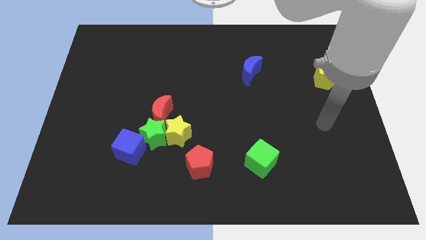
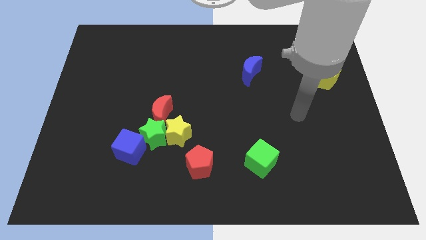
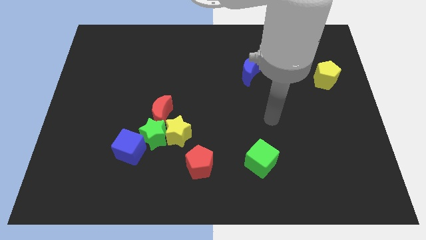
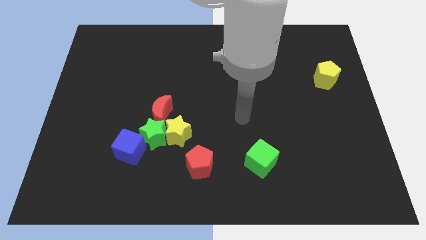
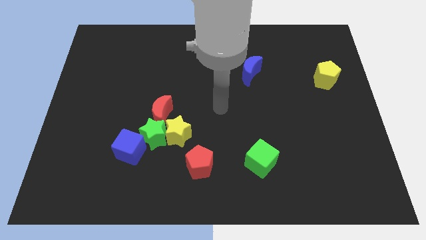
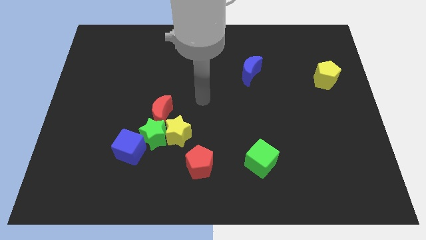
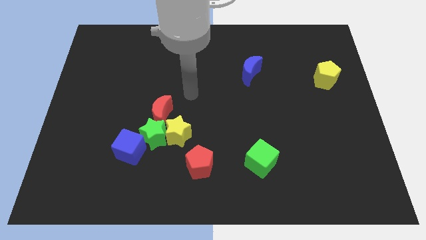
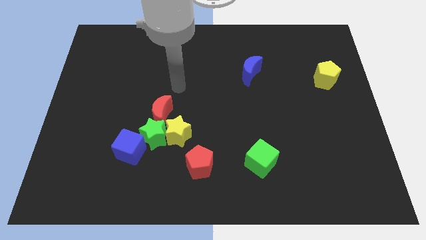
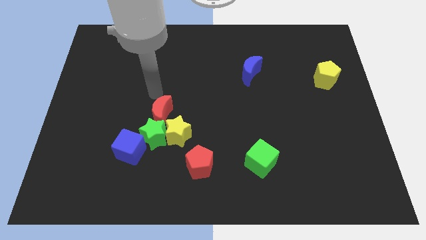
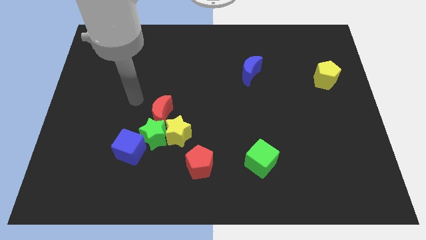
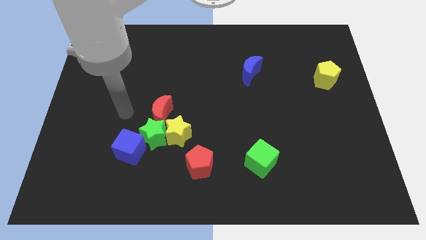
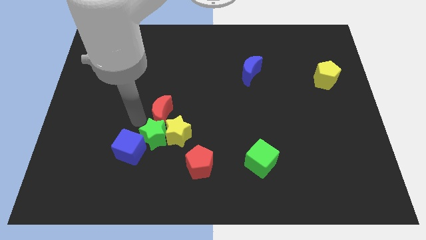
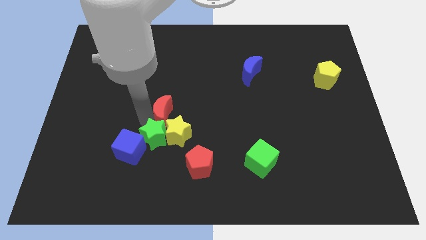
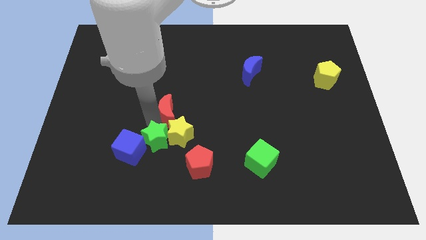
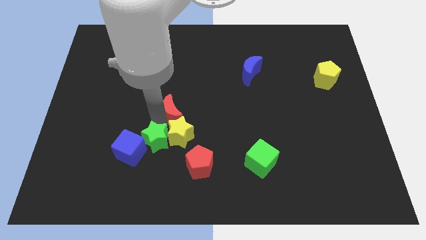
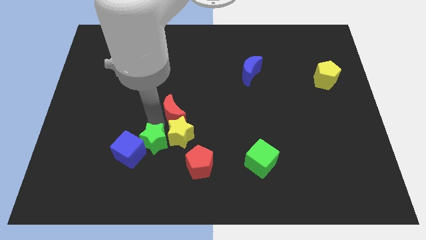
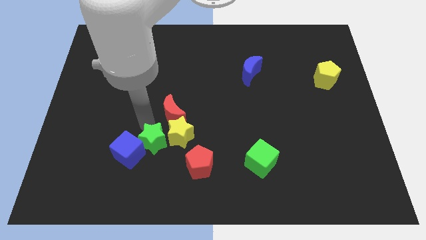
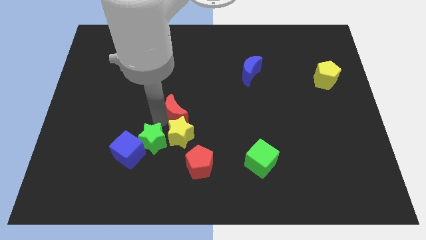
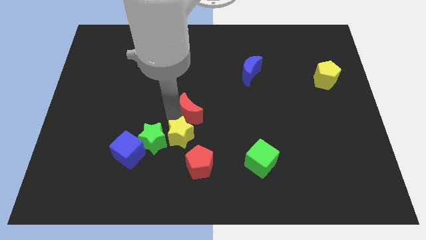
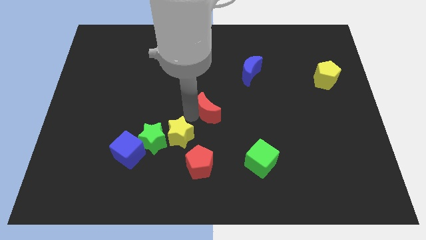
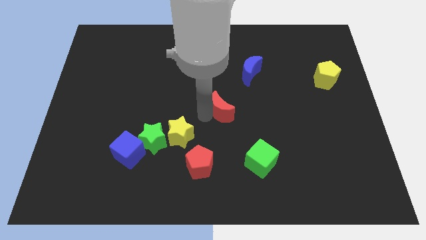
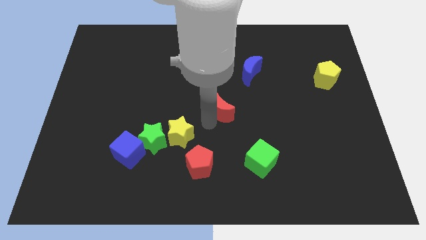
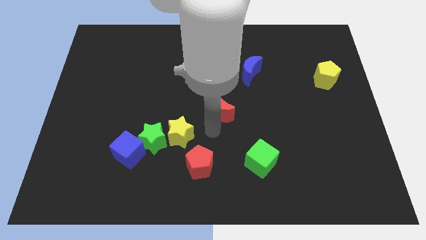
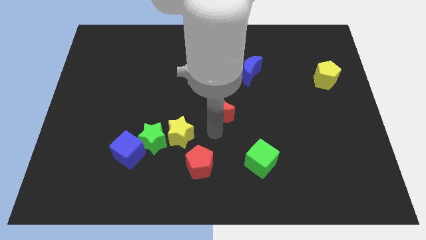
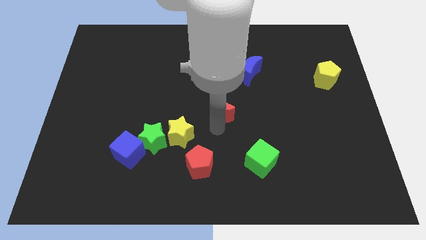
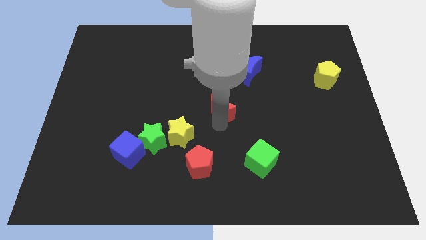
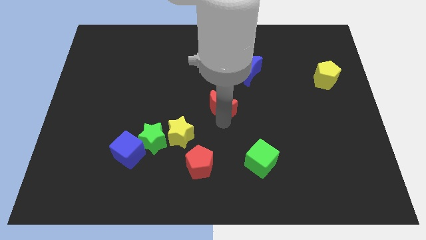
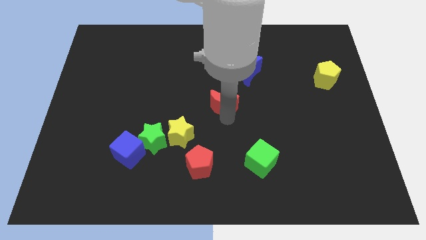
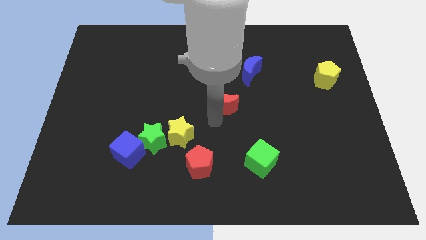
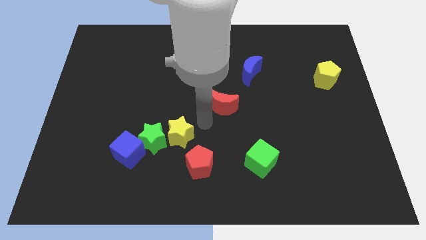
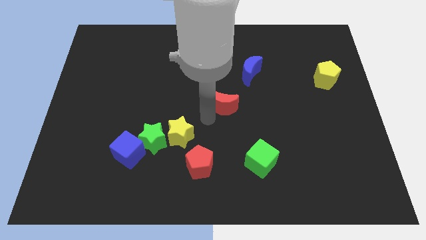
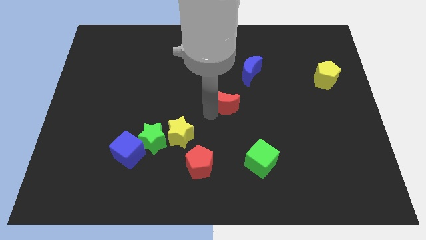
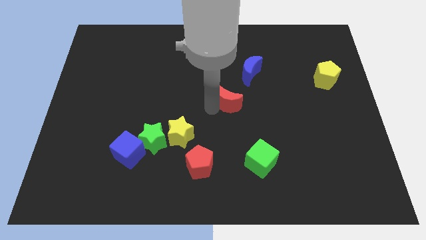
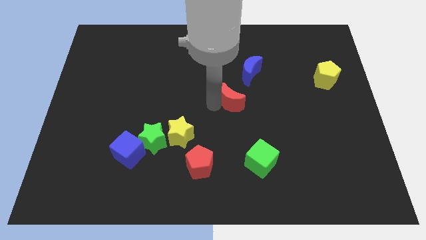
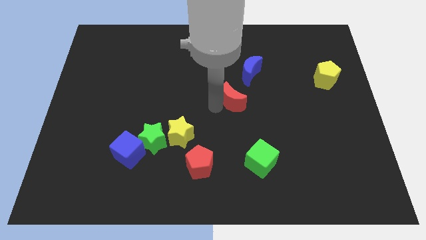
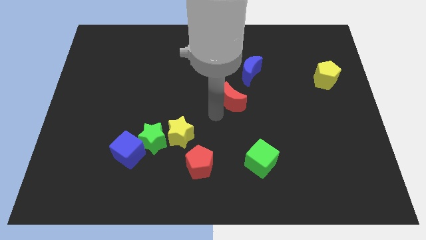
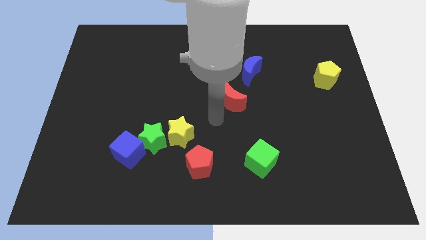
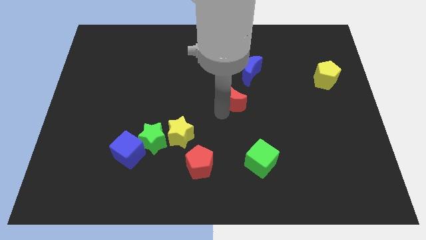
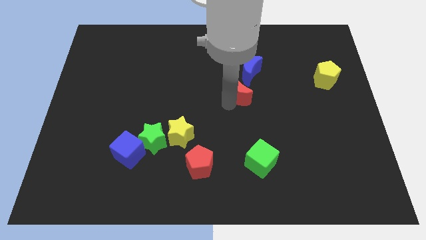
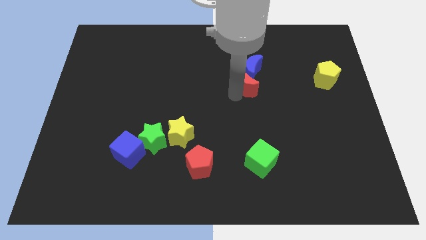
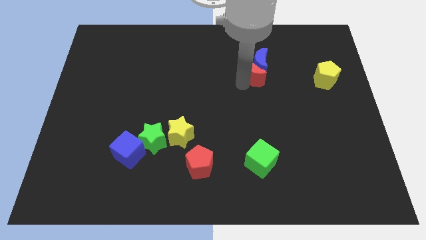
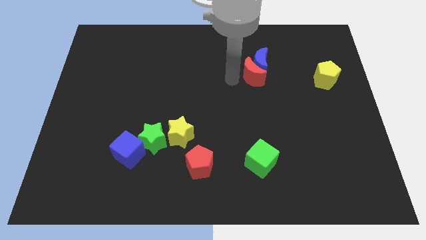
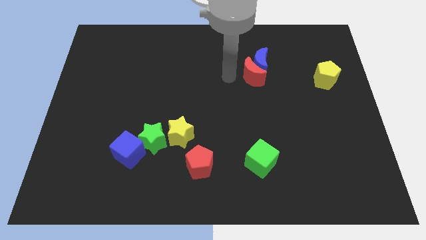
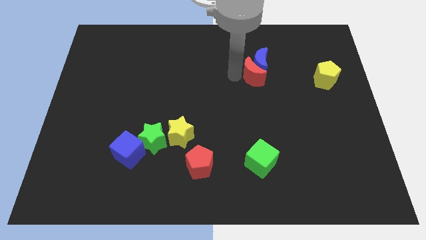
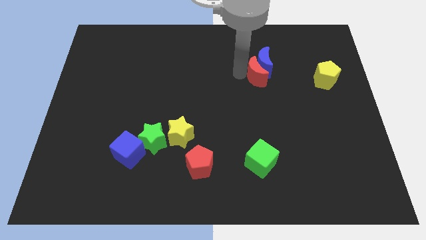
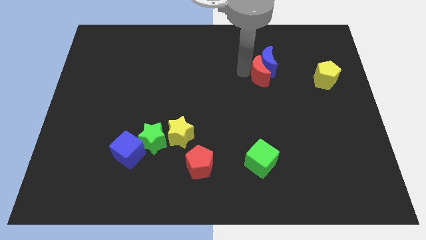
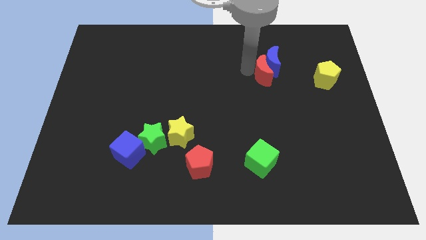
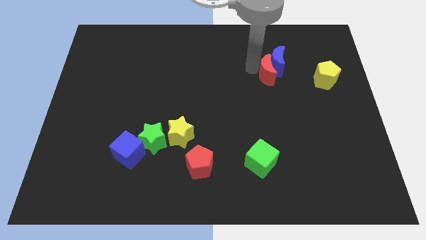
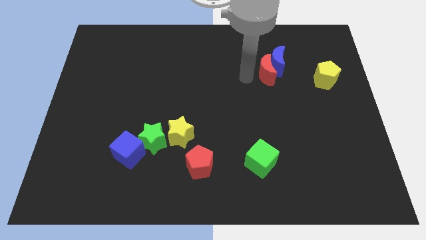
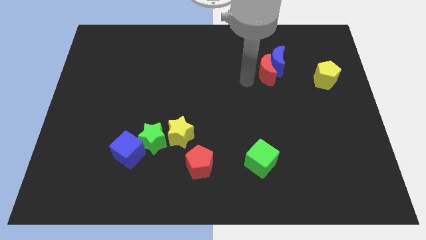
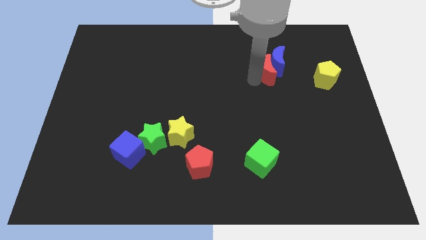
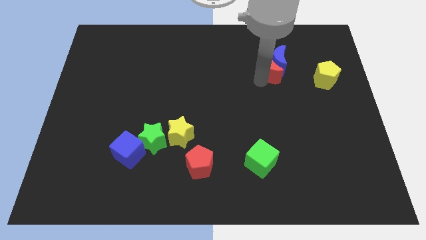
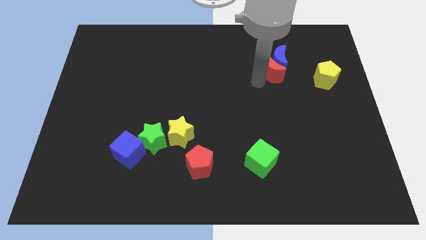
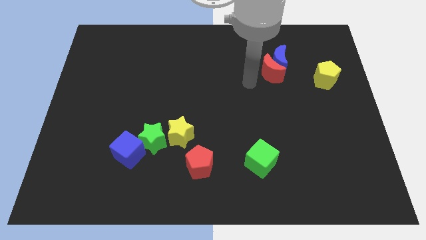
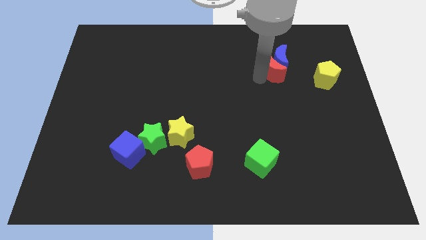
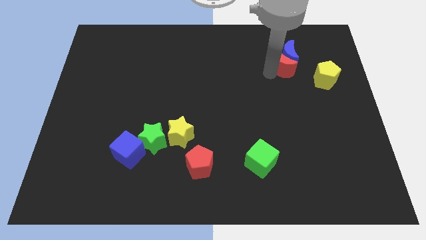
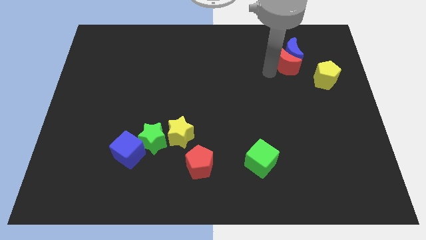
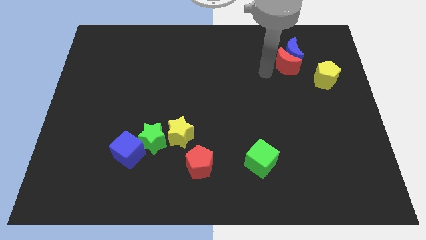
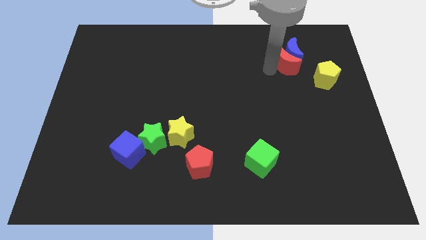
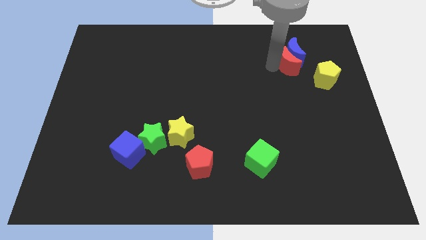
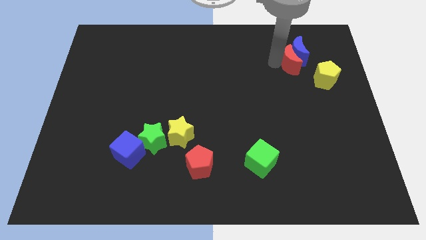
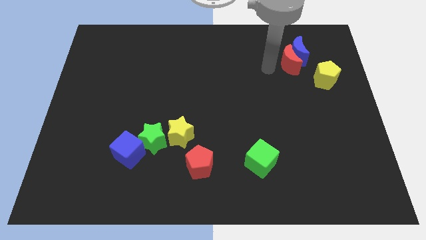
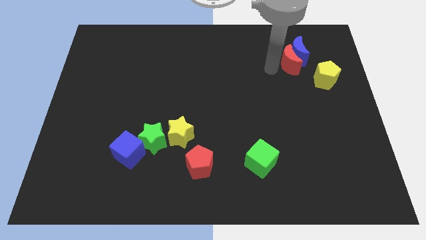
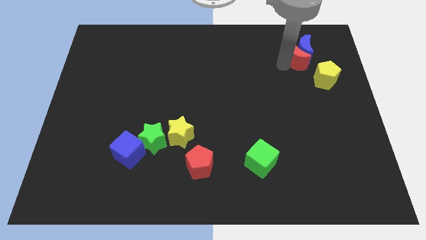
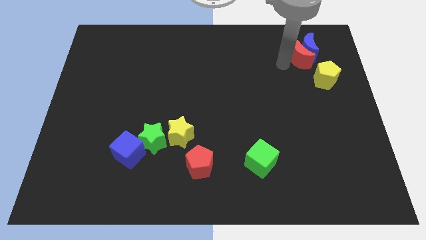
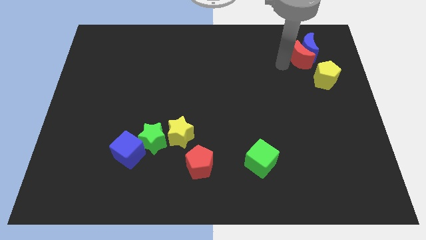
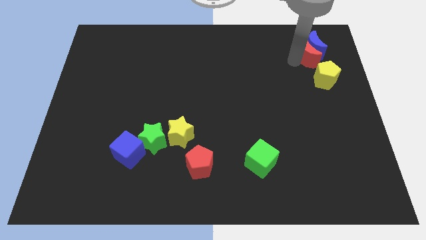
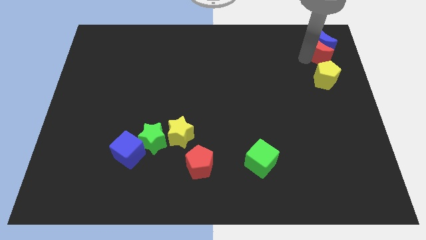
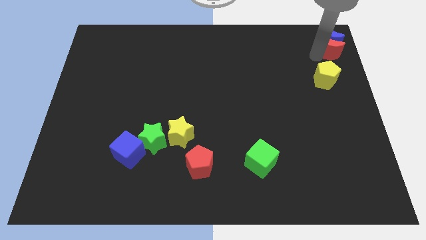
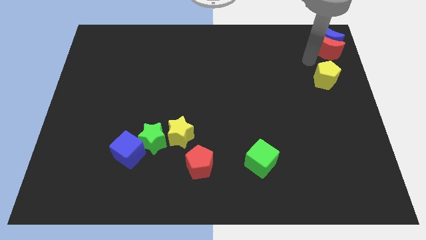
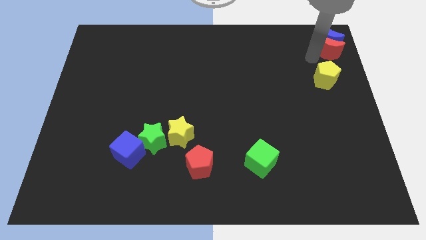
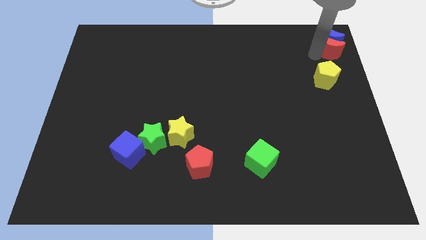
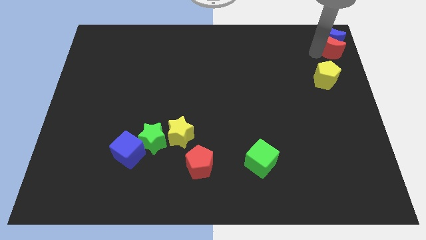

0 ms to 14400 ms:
slide the red moon to the top right of the board
